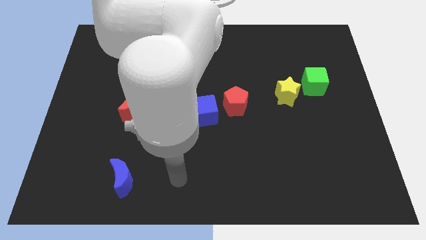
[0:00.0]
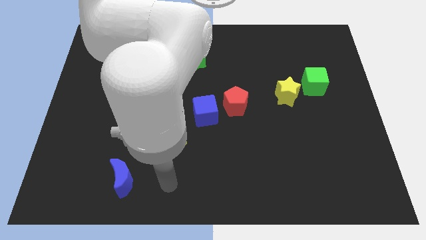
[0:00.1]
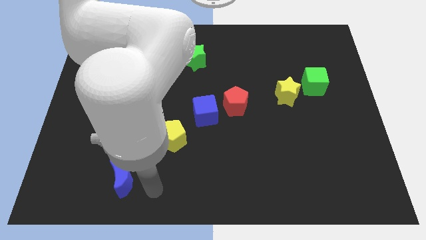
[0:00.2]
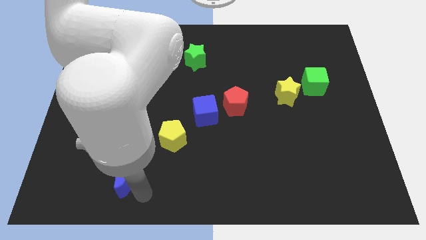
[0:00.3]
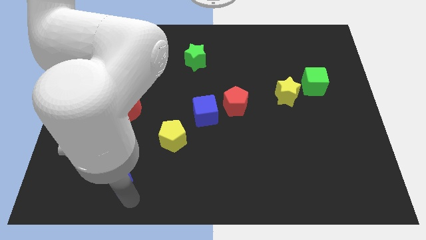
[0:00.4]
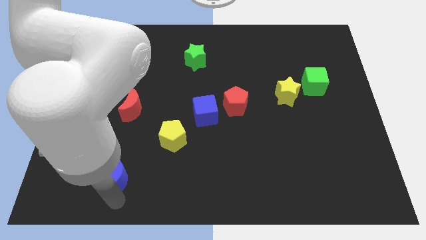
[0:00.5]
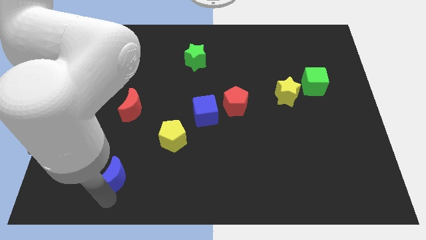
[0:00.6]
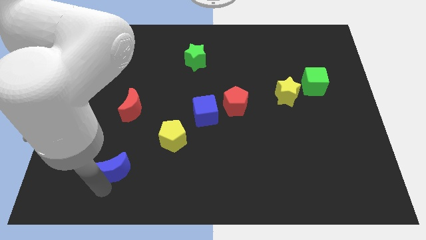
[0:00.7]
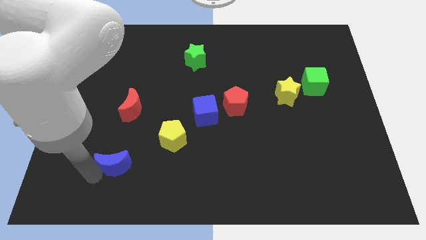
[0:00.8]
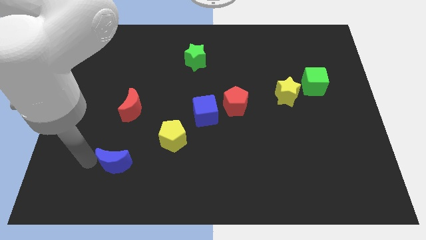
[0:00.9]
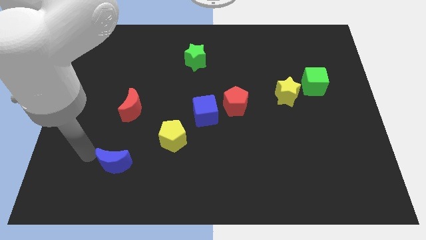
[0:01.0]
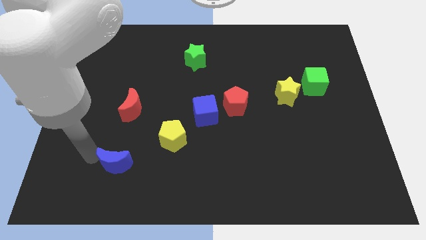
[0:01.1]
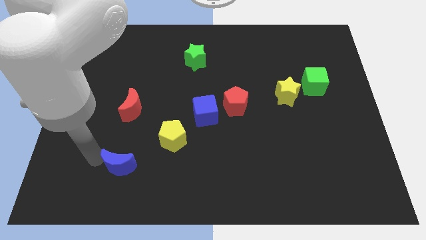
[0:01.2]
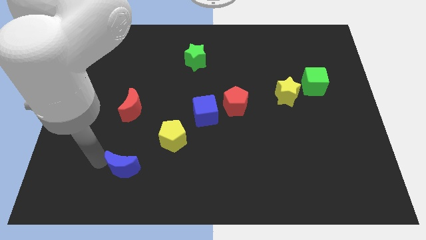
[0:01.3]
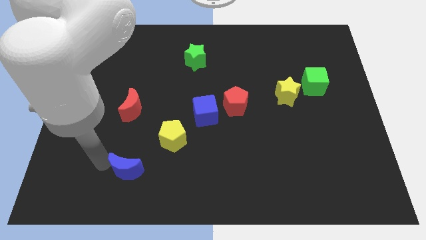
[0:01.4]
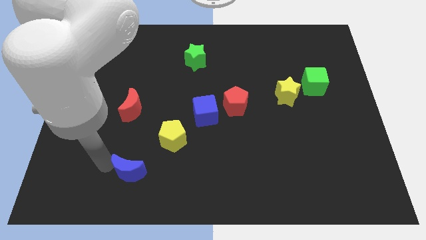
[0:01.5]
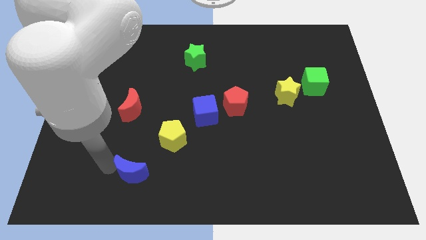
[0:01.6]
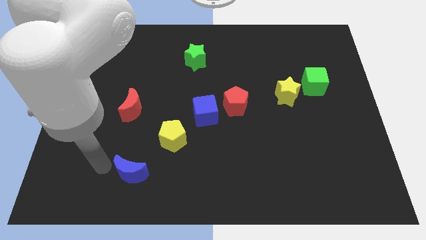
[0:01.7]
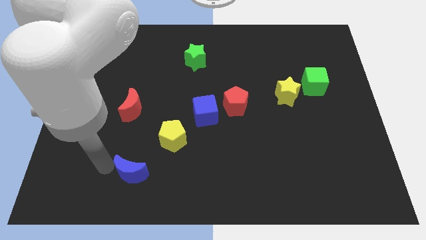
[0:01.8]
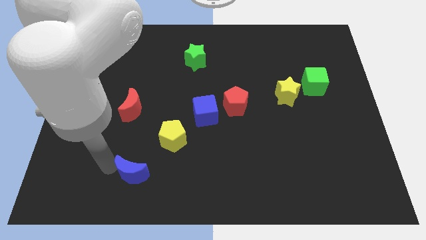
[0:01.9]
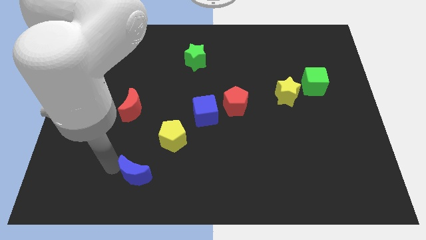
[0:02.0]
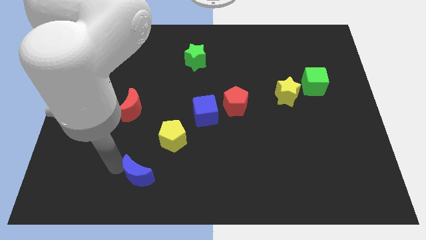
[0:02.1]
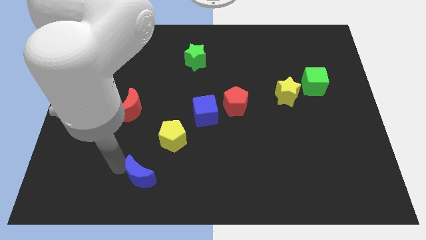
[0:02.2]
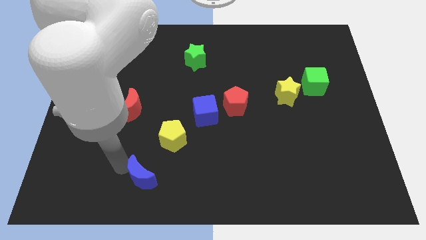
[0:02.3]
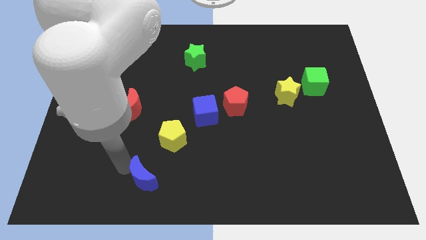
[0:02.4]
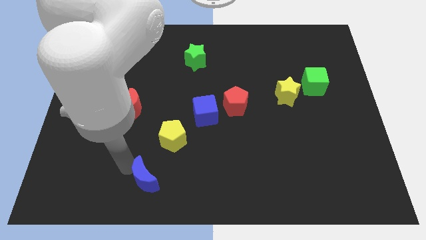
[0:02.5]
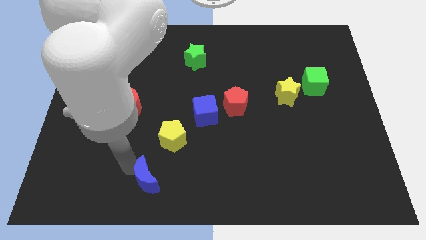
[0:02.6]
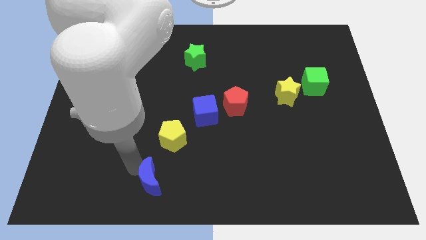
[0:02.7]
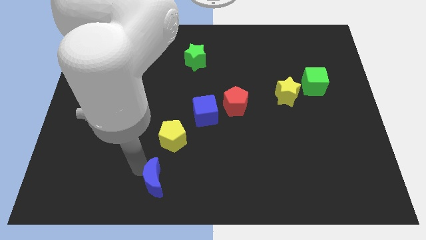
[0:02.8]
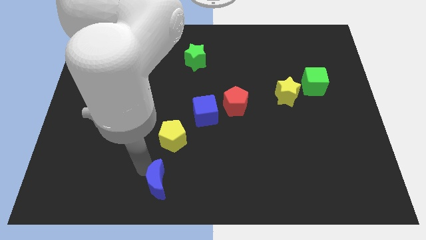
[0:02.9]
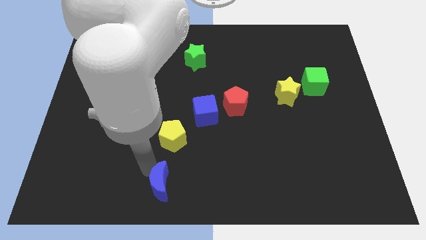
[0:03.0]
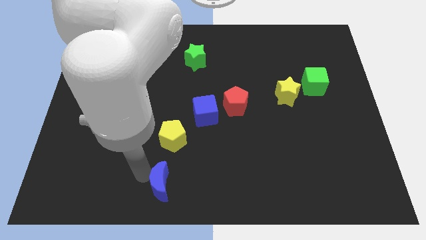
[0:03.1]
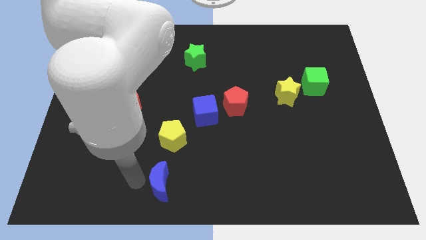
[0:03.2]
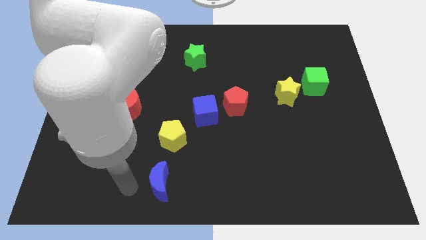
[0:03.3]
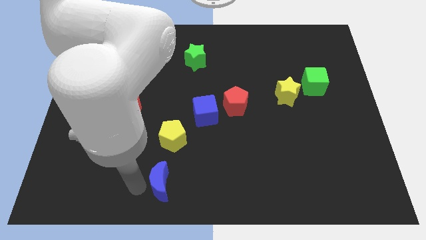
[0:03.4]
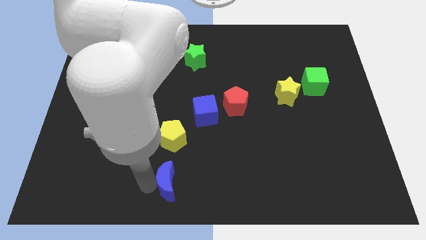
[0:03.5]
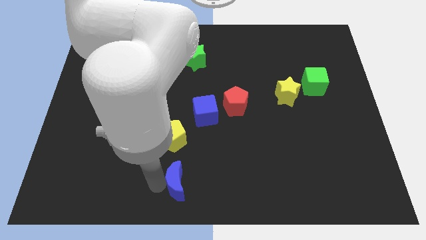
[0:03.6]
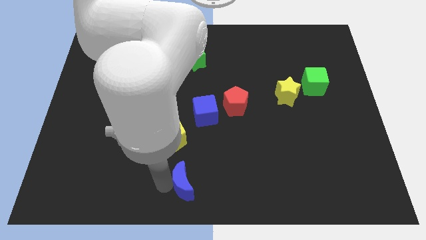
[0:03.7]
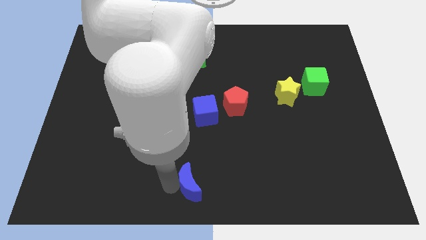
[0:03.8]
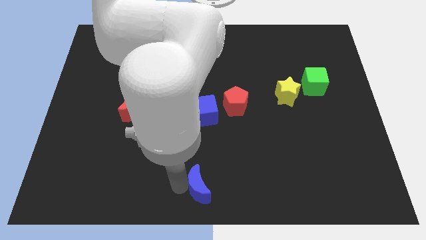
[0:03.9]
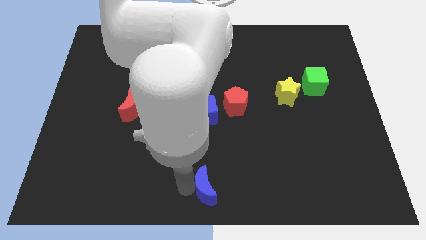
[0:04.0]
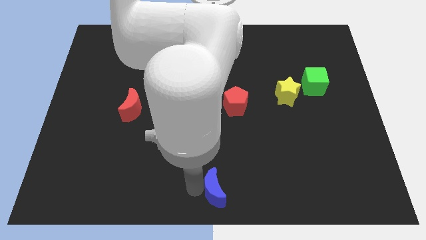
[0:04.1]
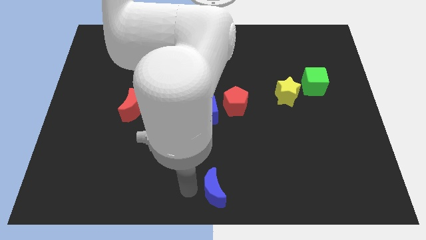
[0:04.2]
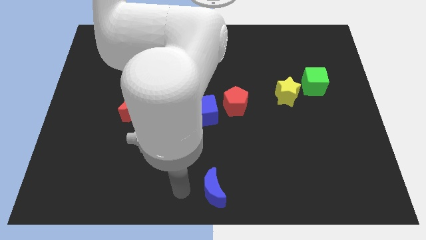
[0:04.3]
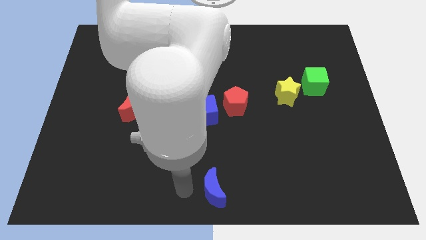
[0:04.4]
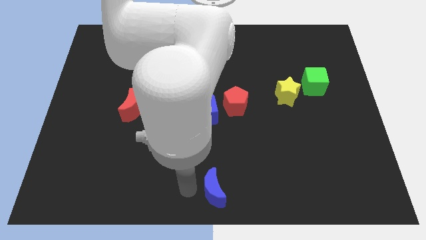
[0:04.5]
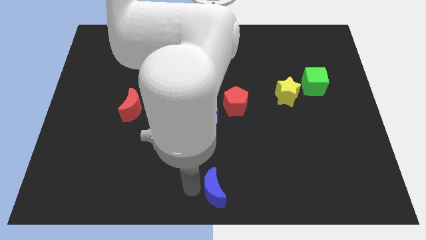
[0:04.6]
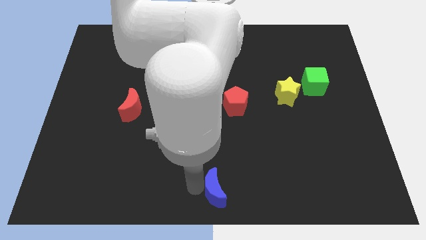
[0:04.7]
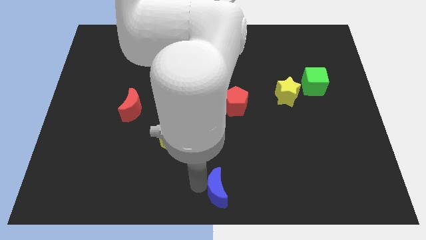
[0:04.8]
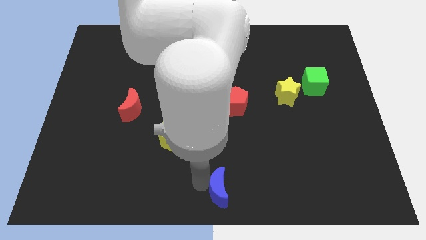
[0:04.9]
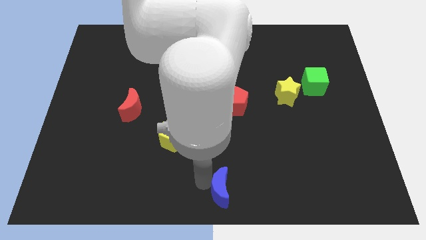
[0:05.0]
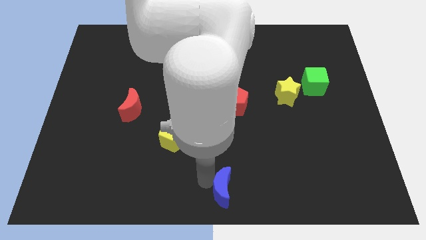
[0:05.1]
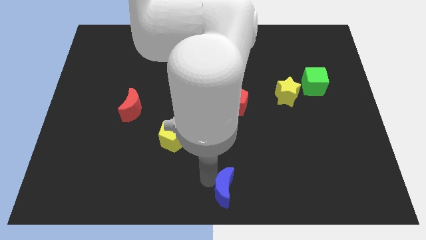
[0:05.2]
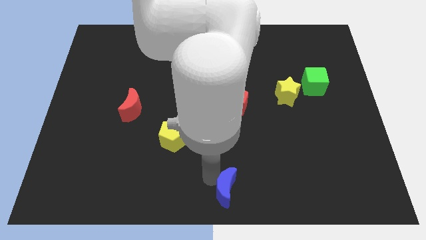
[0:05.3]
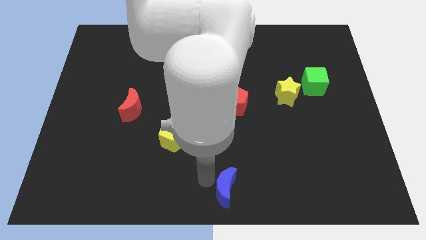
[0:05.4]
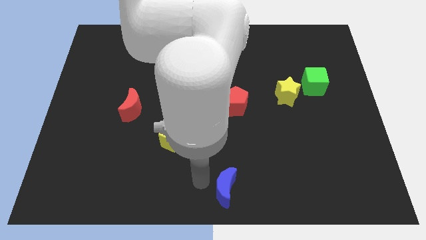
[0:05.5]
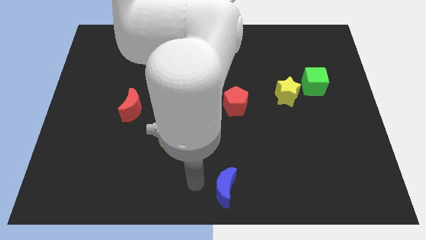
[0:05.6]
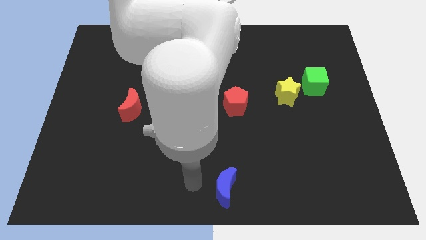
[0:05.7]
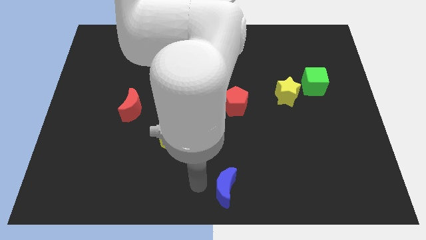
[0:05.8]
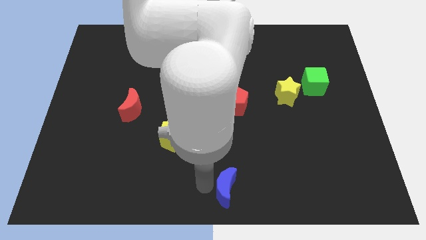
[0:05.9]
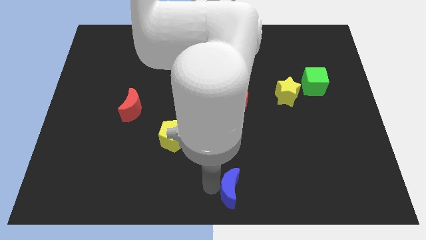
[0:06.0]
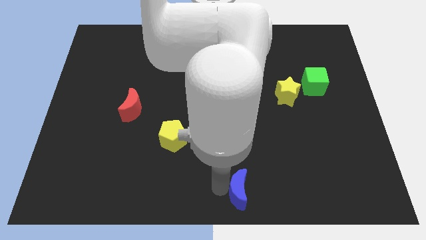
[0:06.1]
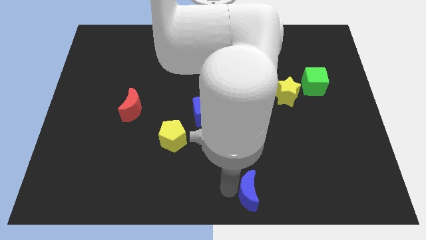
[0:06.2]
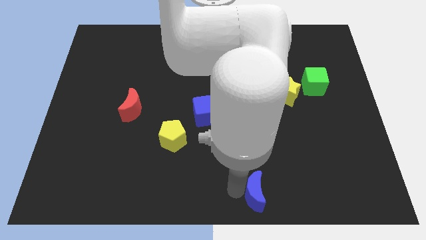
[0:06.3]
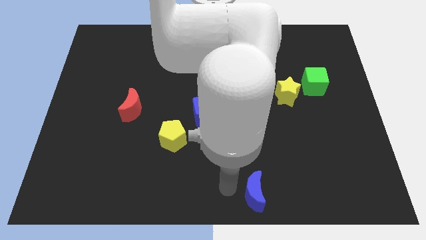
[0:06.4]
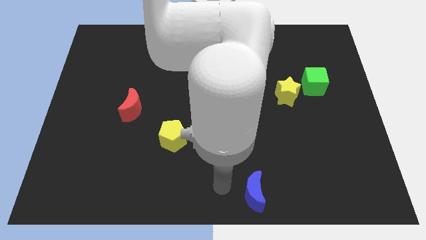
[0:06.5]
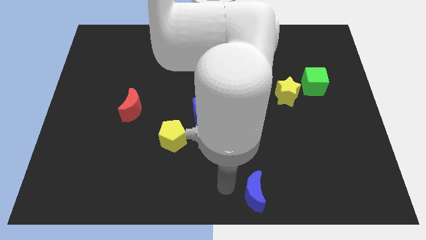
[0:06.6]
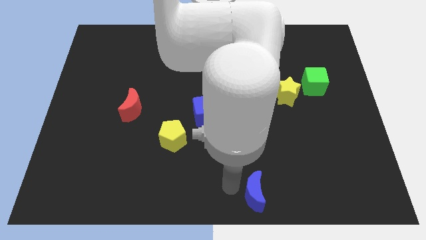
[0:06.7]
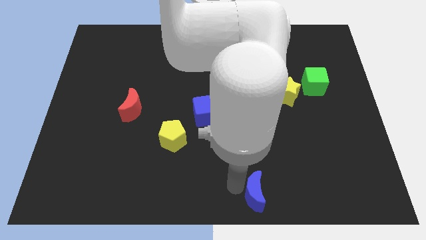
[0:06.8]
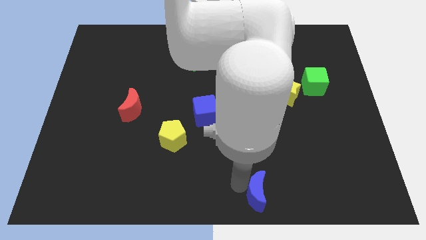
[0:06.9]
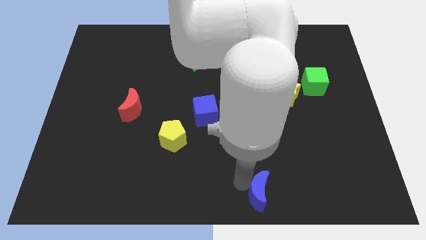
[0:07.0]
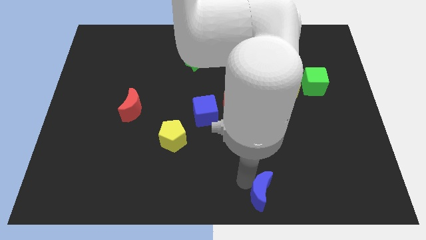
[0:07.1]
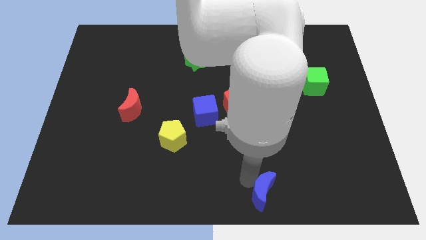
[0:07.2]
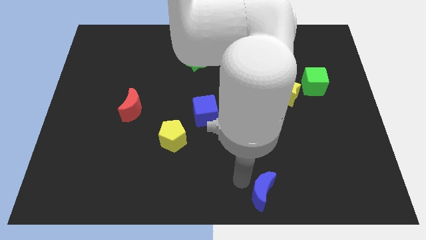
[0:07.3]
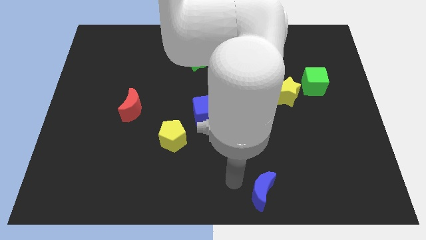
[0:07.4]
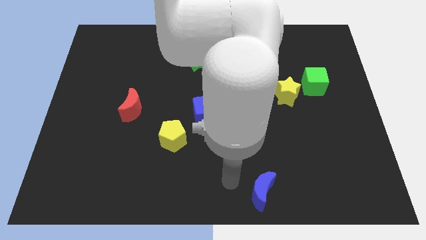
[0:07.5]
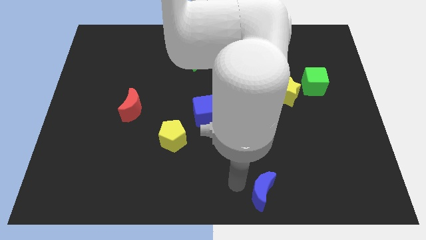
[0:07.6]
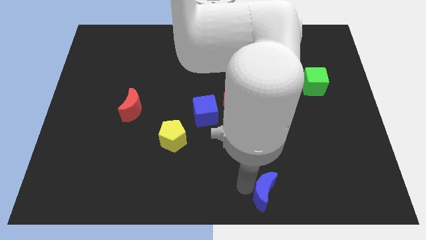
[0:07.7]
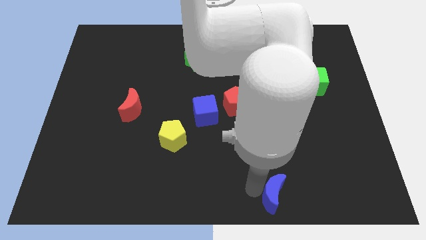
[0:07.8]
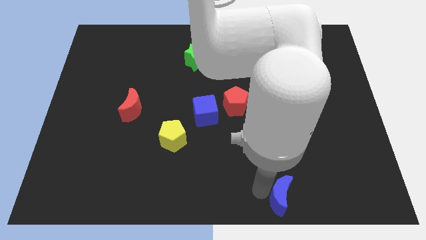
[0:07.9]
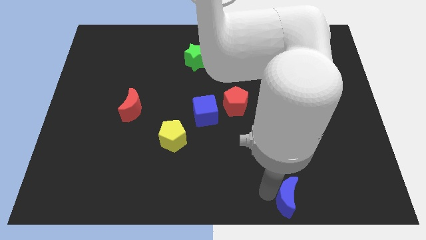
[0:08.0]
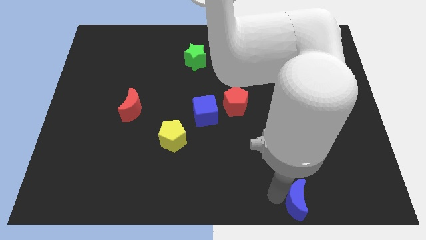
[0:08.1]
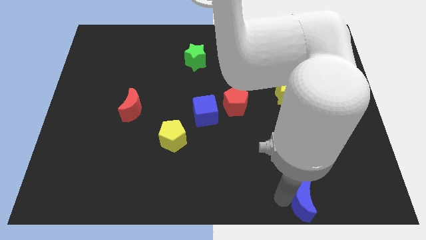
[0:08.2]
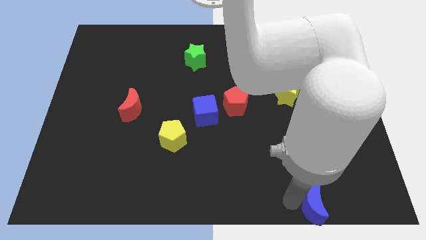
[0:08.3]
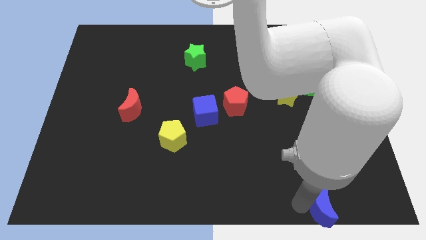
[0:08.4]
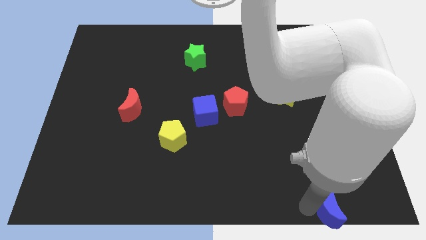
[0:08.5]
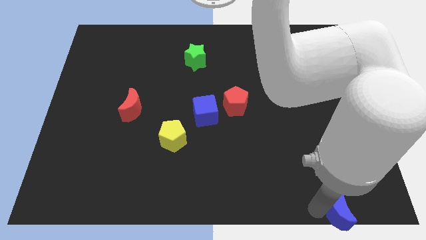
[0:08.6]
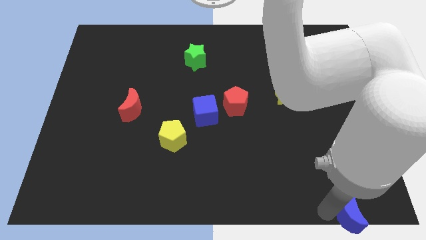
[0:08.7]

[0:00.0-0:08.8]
slide the blue moon to the bottom right of the board
